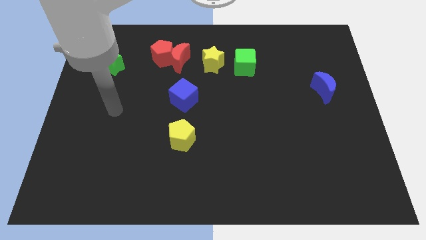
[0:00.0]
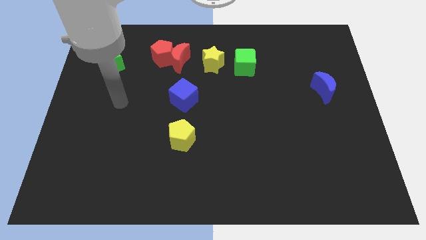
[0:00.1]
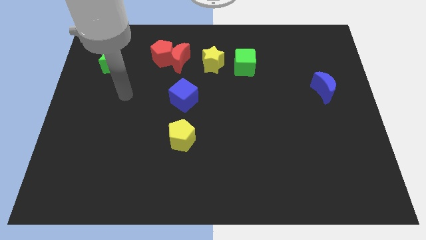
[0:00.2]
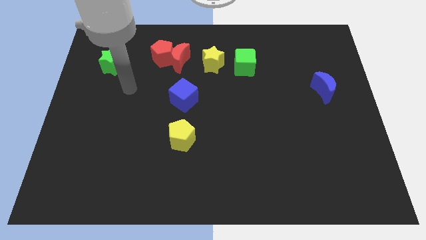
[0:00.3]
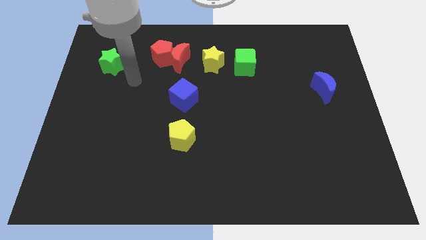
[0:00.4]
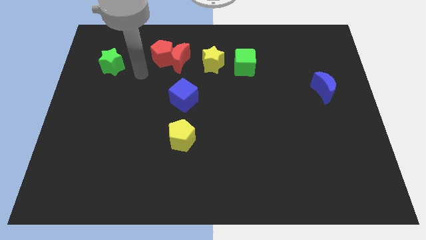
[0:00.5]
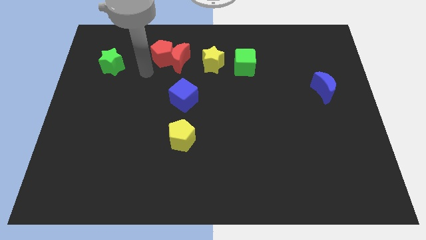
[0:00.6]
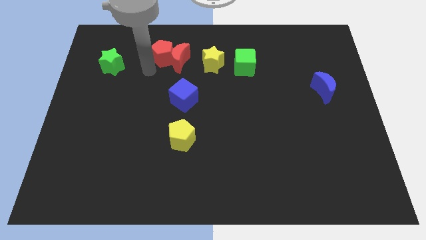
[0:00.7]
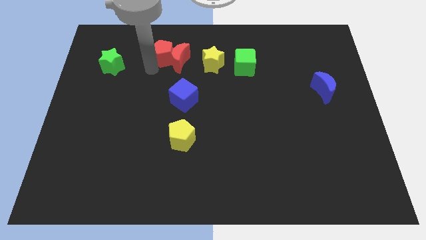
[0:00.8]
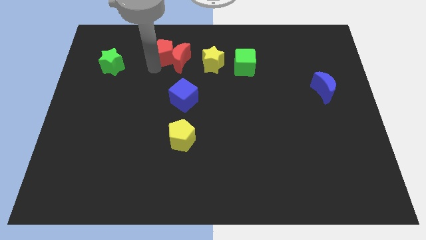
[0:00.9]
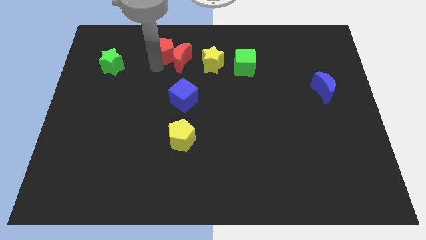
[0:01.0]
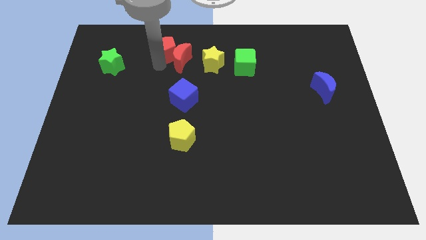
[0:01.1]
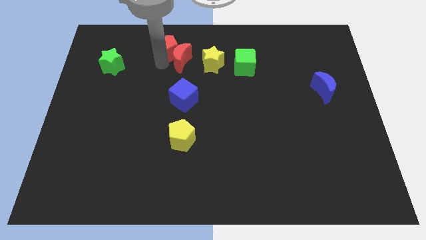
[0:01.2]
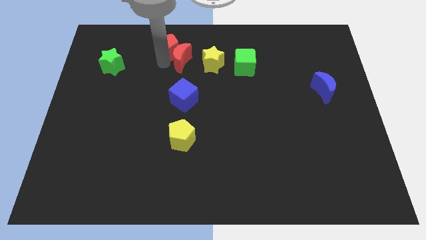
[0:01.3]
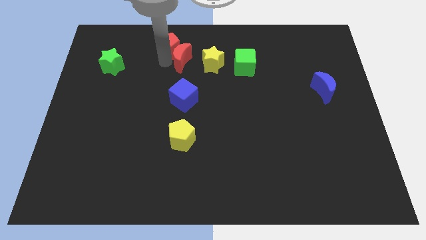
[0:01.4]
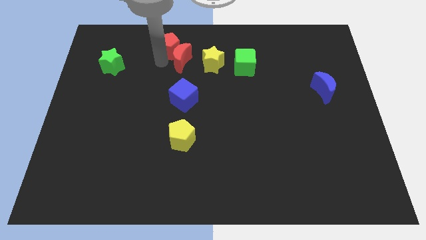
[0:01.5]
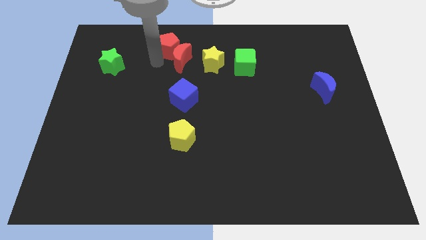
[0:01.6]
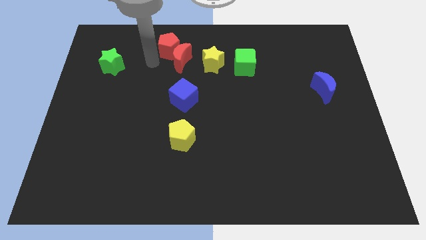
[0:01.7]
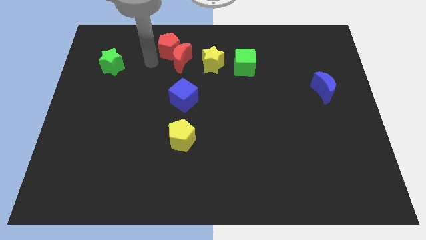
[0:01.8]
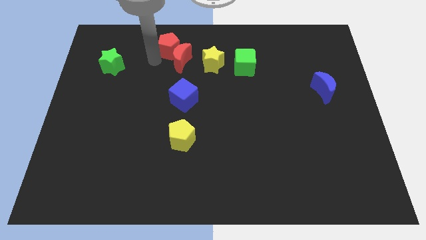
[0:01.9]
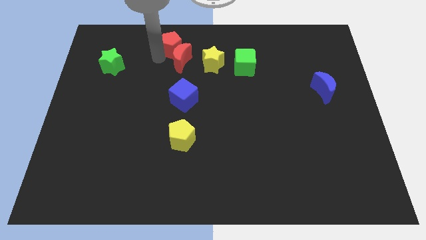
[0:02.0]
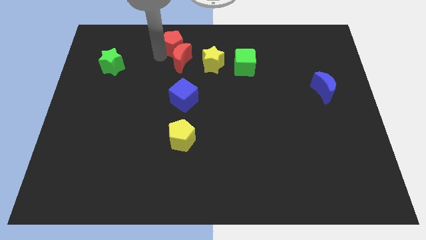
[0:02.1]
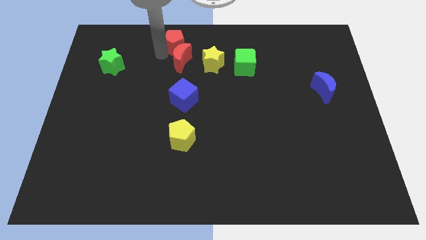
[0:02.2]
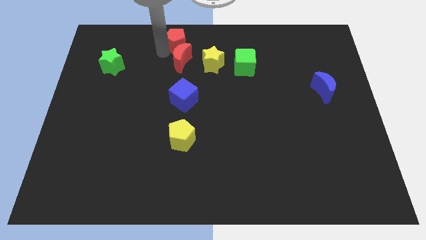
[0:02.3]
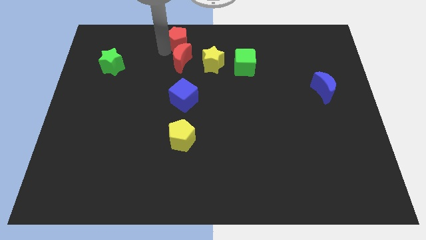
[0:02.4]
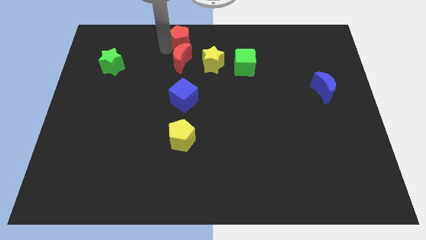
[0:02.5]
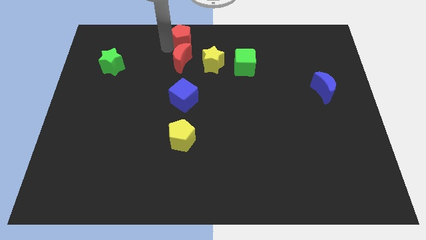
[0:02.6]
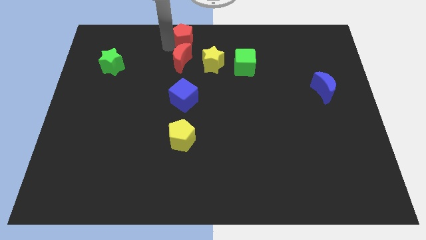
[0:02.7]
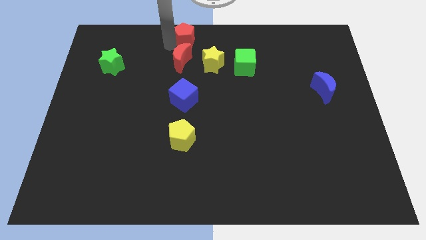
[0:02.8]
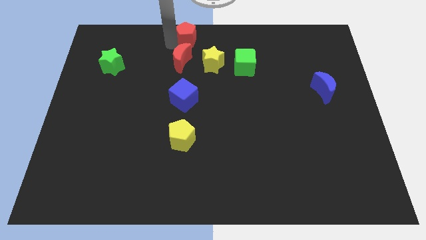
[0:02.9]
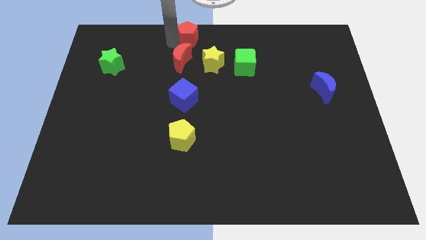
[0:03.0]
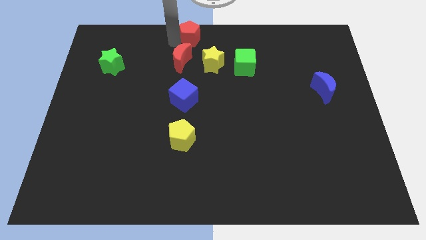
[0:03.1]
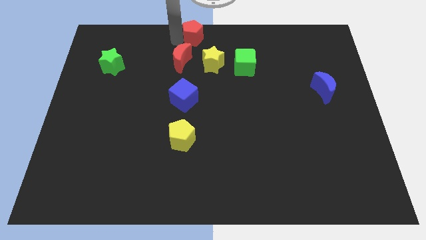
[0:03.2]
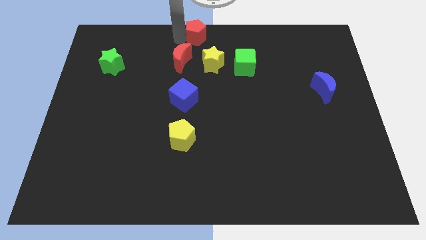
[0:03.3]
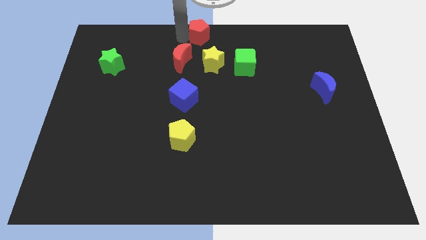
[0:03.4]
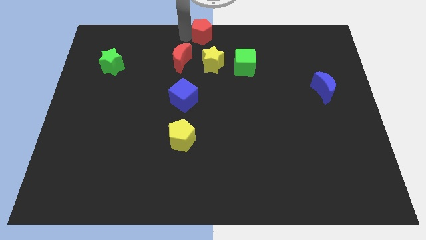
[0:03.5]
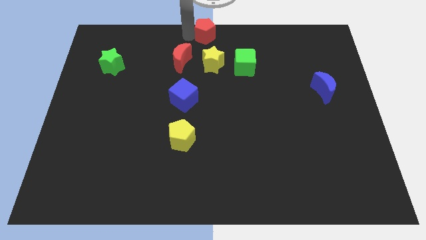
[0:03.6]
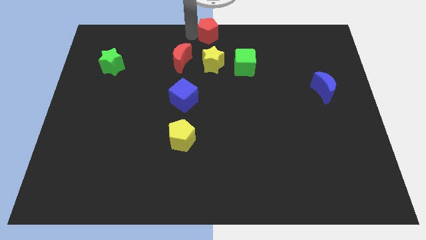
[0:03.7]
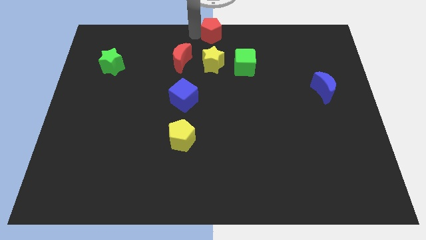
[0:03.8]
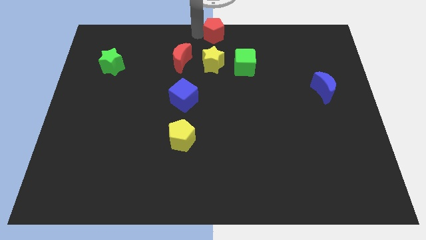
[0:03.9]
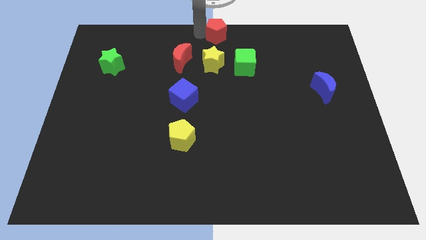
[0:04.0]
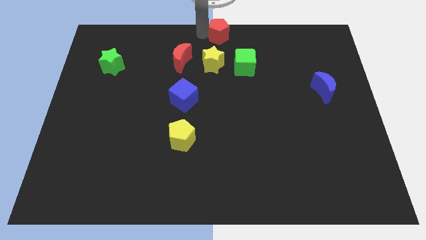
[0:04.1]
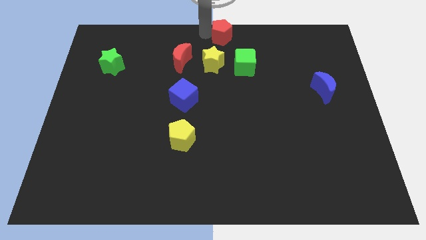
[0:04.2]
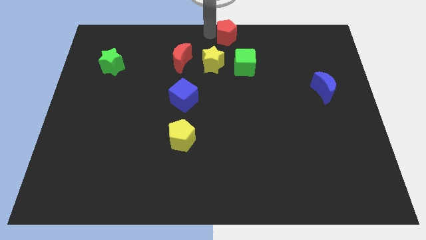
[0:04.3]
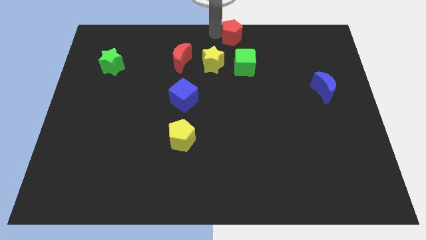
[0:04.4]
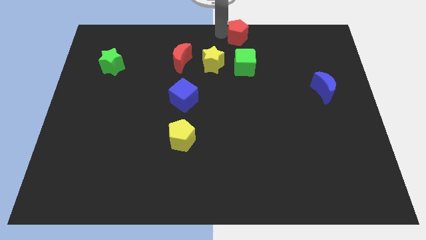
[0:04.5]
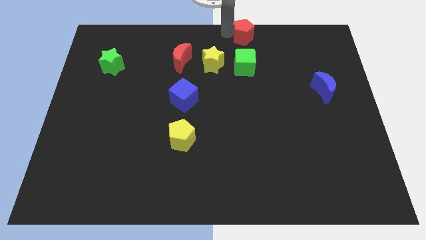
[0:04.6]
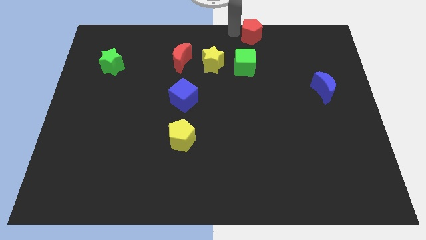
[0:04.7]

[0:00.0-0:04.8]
push the red pentagon right

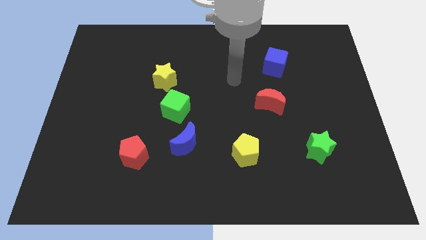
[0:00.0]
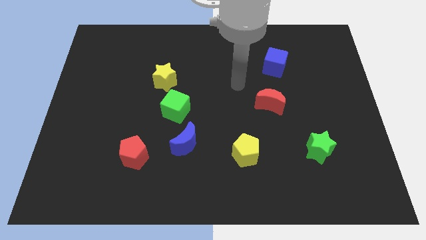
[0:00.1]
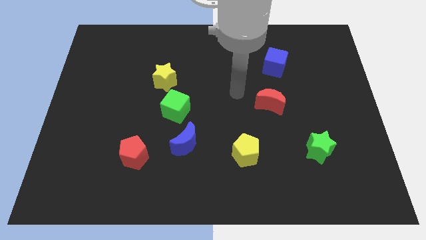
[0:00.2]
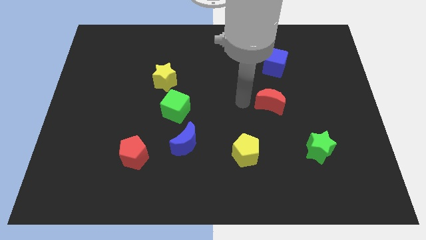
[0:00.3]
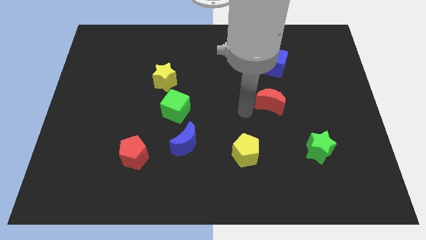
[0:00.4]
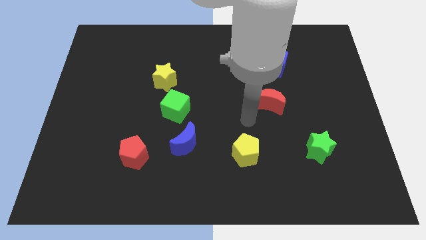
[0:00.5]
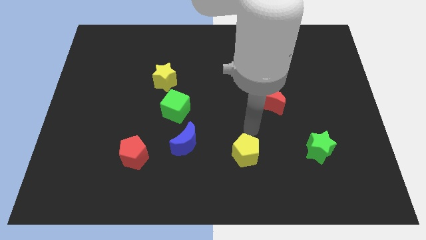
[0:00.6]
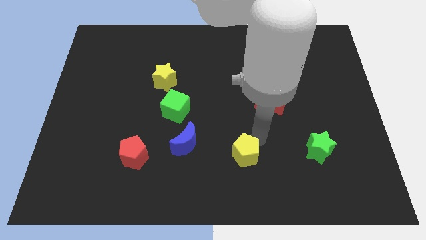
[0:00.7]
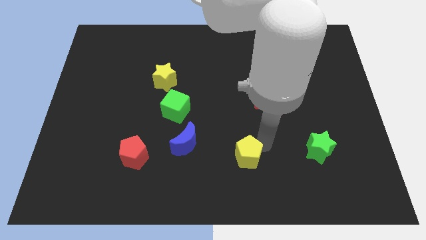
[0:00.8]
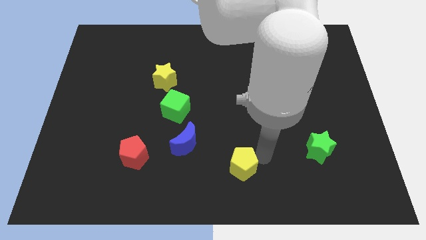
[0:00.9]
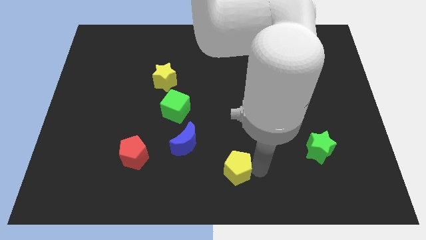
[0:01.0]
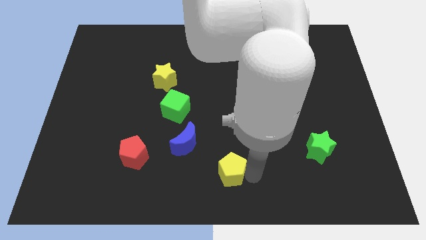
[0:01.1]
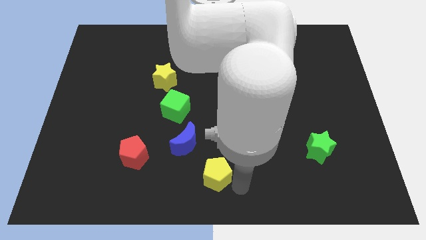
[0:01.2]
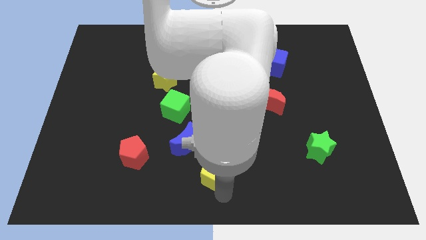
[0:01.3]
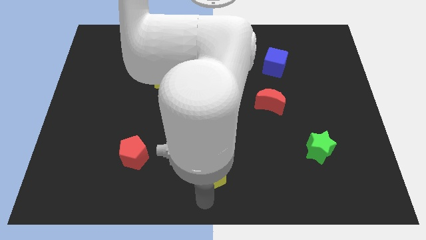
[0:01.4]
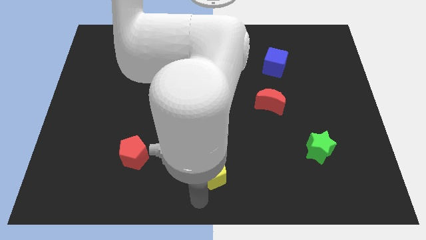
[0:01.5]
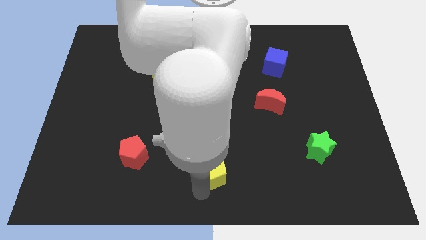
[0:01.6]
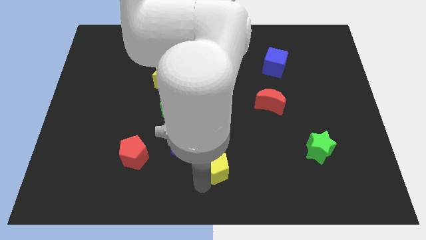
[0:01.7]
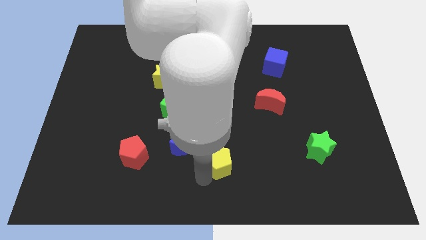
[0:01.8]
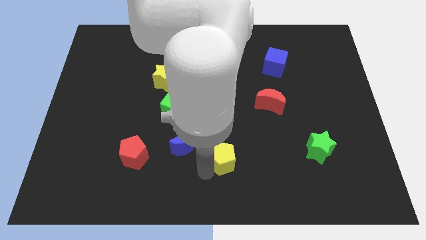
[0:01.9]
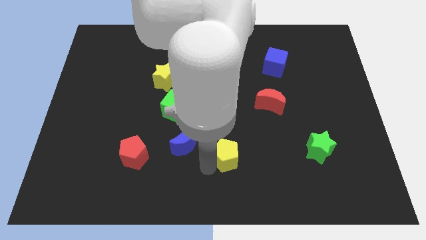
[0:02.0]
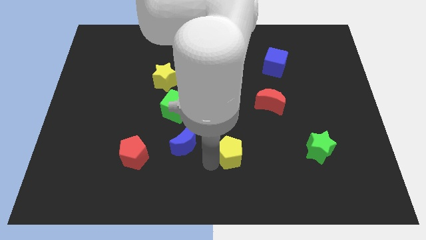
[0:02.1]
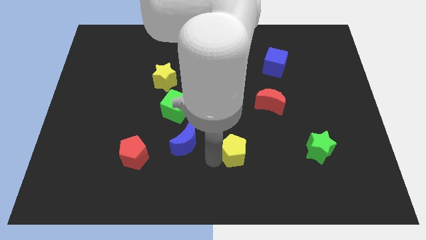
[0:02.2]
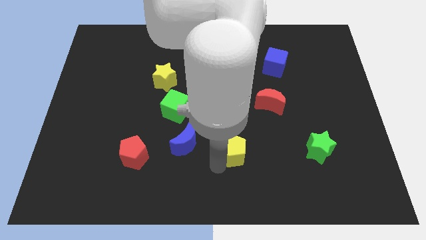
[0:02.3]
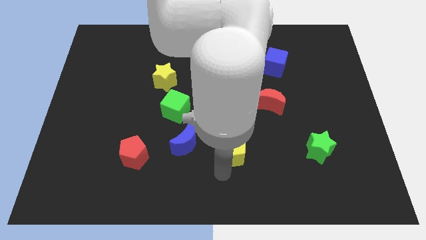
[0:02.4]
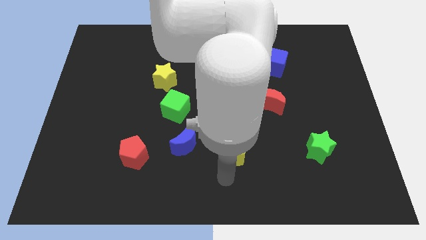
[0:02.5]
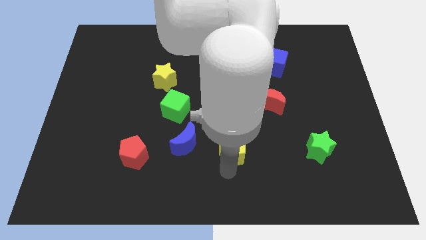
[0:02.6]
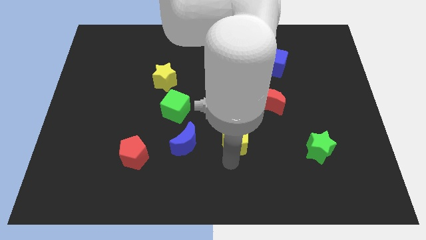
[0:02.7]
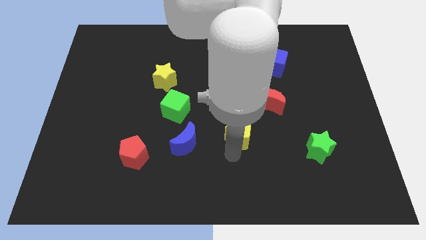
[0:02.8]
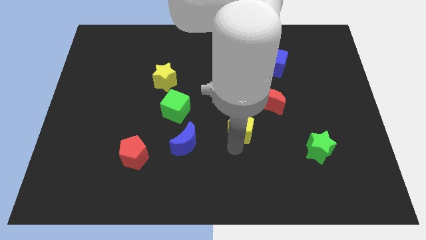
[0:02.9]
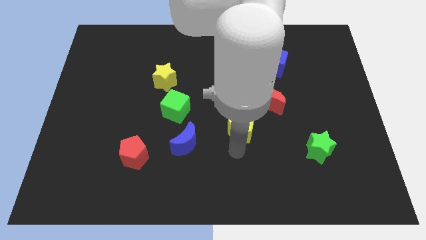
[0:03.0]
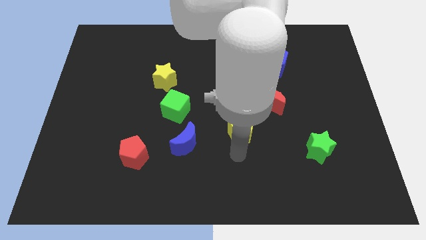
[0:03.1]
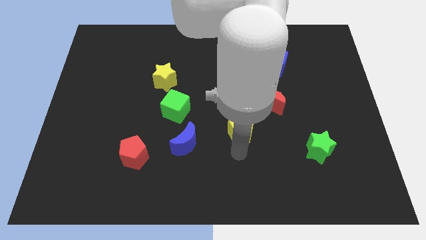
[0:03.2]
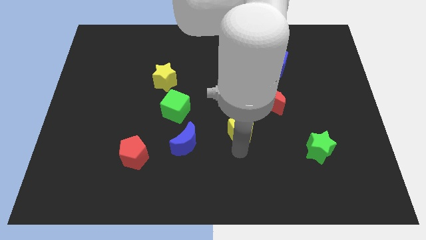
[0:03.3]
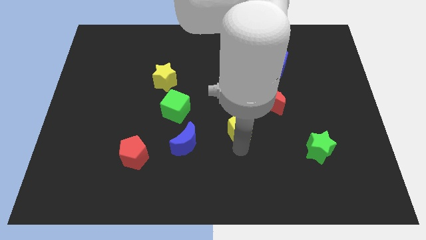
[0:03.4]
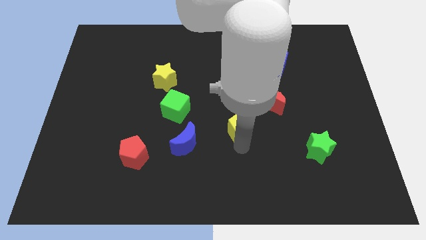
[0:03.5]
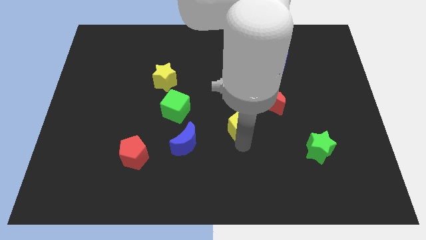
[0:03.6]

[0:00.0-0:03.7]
slightly move the yellow pentagon up

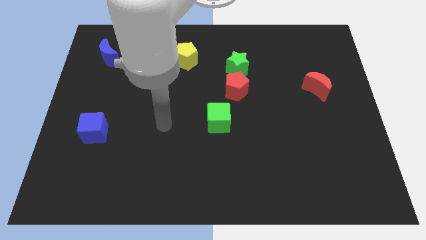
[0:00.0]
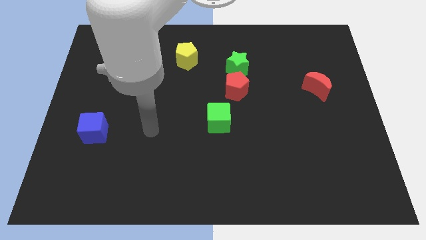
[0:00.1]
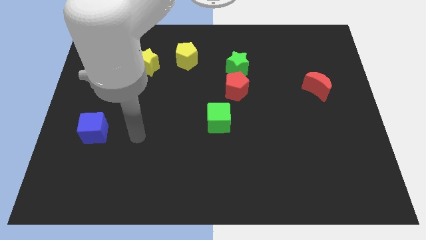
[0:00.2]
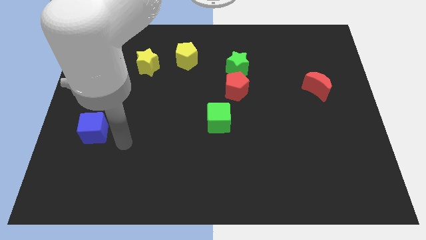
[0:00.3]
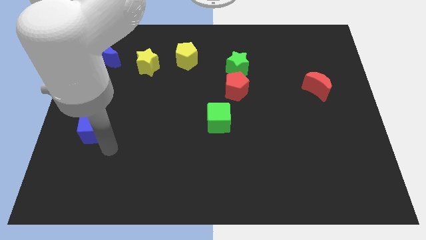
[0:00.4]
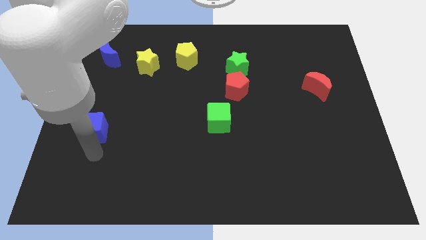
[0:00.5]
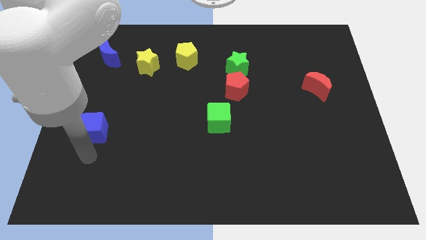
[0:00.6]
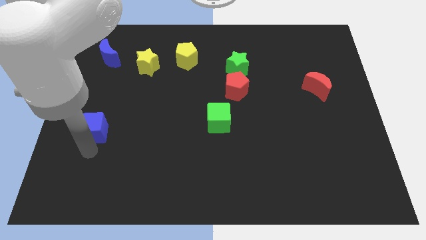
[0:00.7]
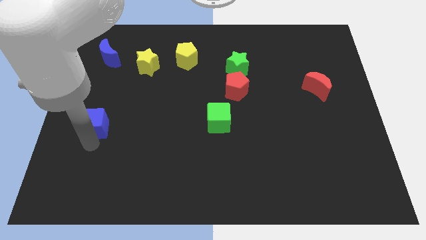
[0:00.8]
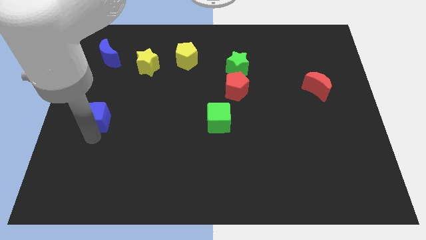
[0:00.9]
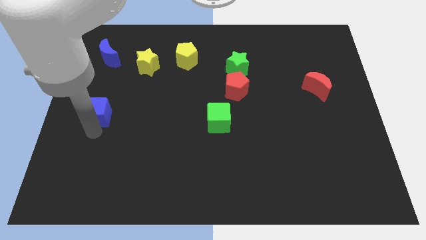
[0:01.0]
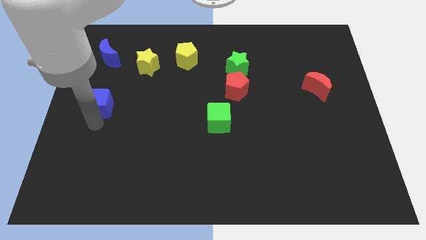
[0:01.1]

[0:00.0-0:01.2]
slightly slide the blue cube up
